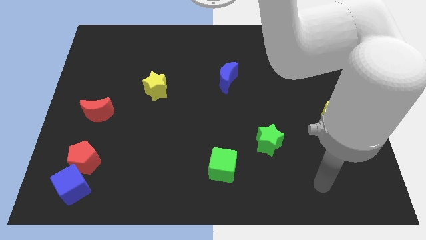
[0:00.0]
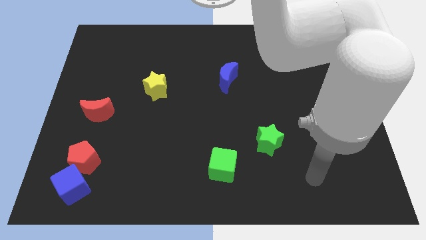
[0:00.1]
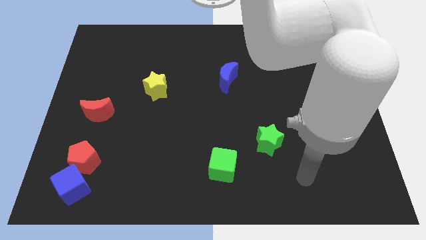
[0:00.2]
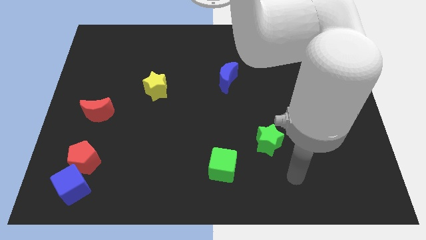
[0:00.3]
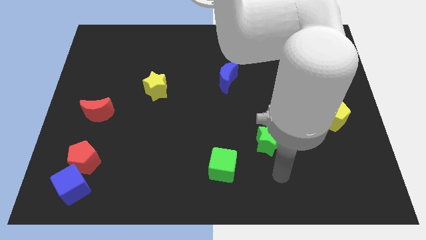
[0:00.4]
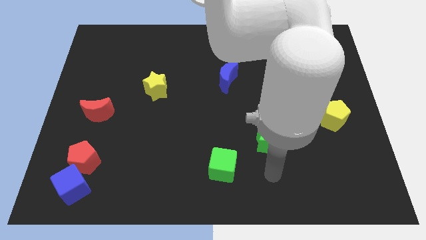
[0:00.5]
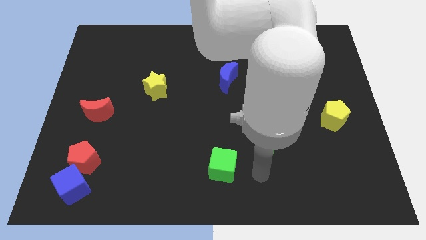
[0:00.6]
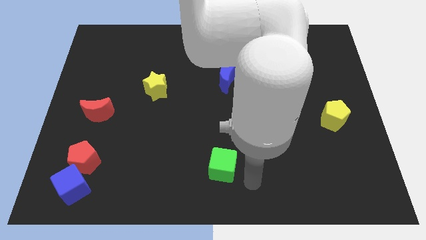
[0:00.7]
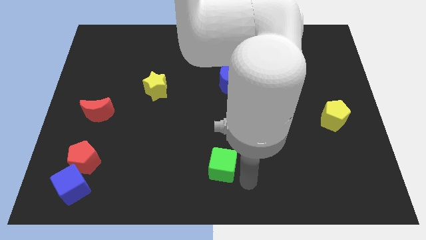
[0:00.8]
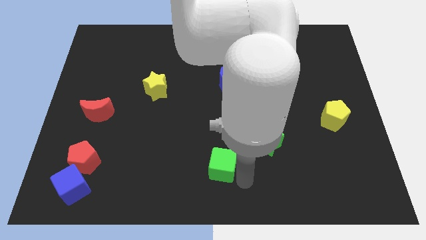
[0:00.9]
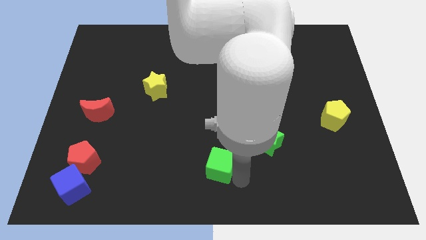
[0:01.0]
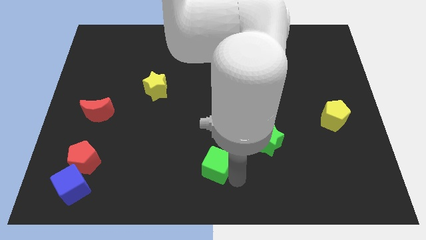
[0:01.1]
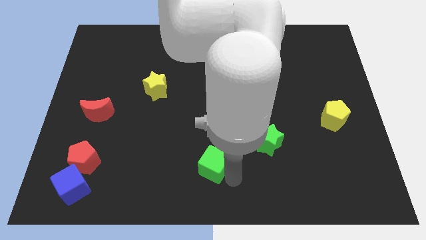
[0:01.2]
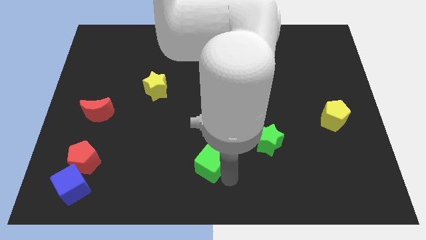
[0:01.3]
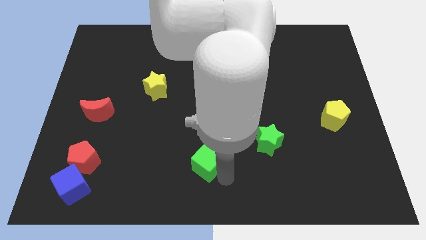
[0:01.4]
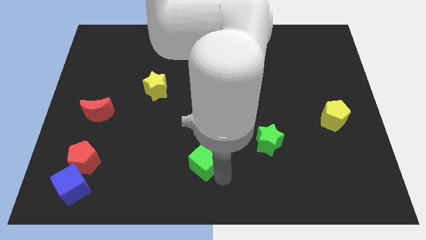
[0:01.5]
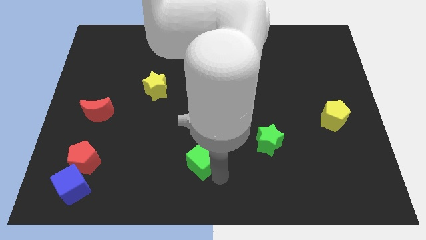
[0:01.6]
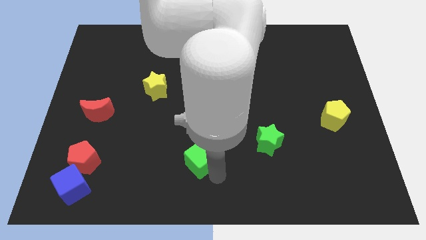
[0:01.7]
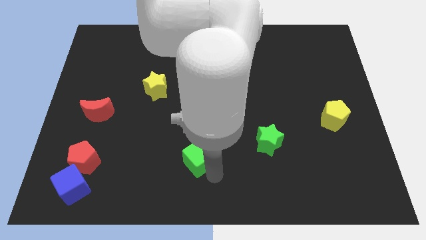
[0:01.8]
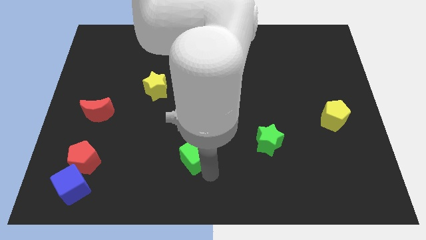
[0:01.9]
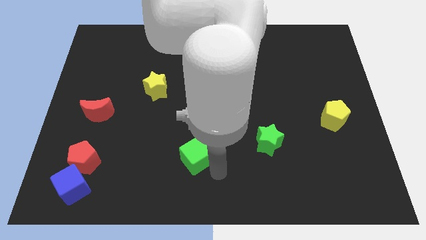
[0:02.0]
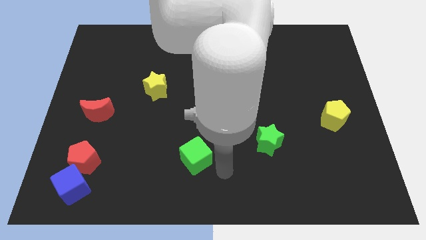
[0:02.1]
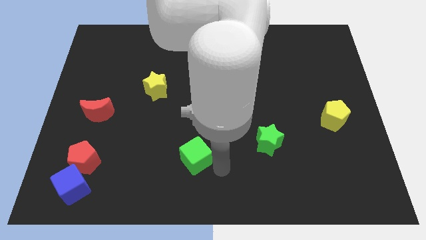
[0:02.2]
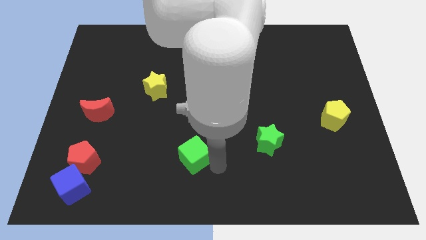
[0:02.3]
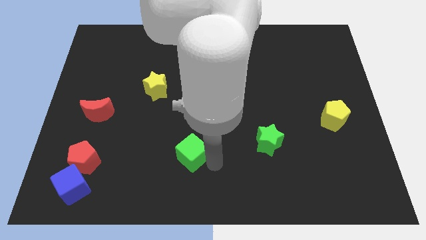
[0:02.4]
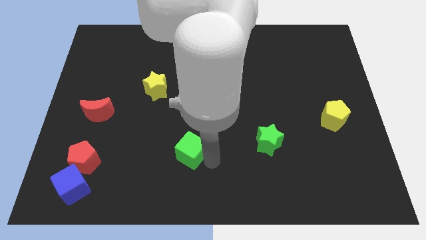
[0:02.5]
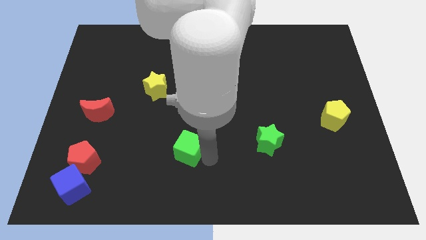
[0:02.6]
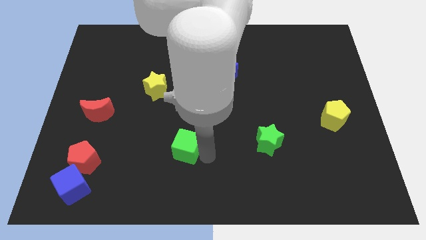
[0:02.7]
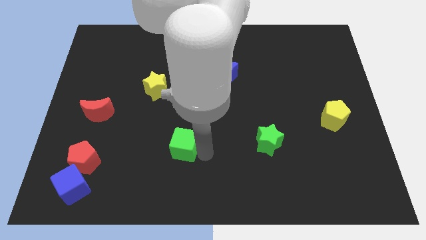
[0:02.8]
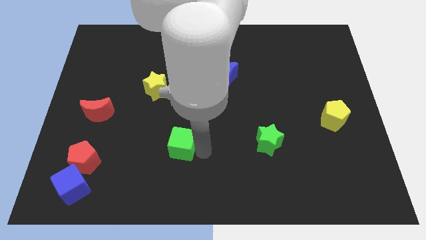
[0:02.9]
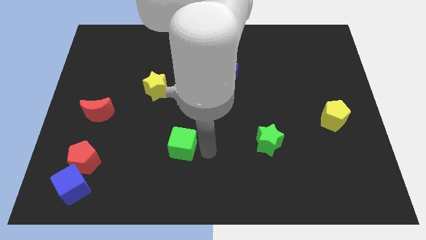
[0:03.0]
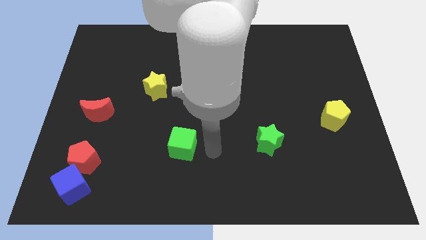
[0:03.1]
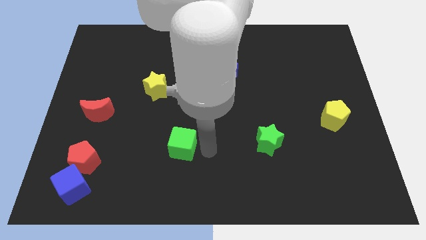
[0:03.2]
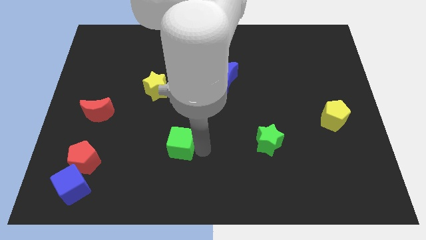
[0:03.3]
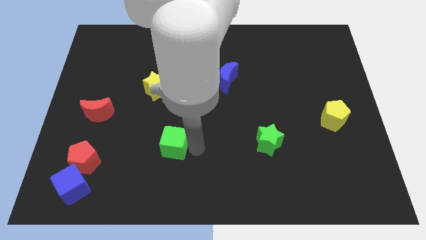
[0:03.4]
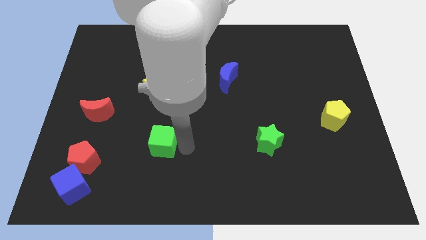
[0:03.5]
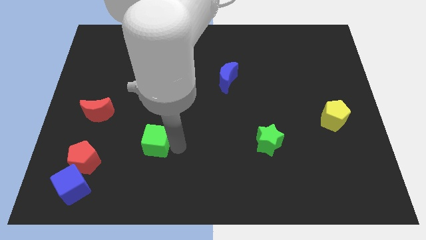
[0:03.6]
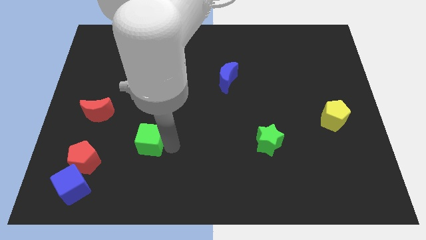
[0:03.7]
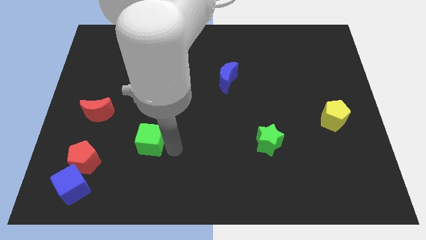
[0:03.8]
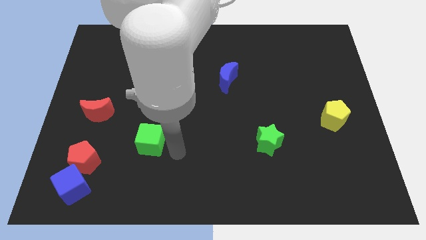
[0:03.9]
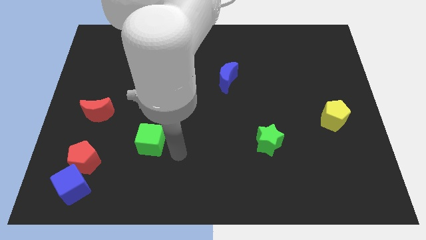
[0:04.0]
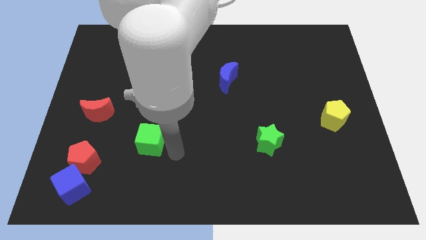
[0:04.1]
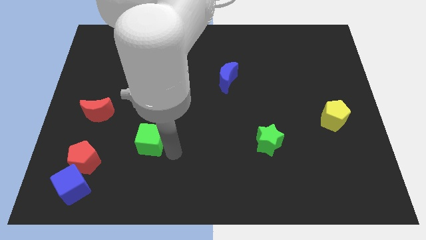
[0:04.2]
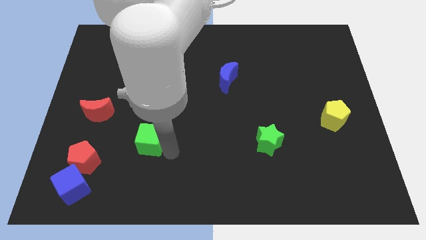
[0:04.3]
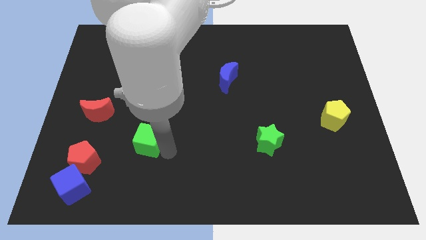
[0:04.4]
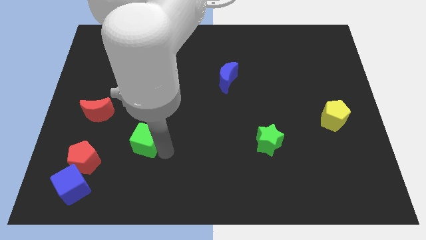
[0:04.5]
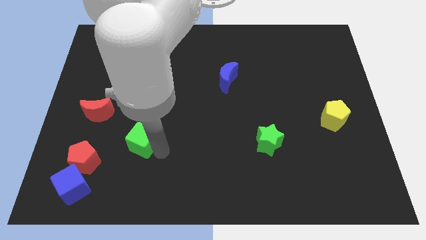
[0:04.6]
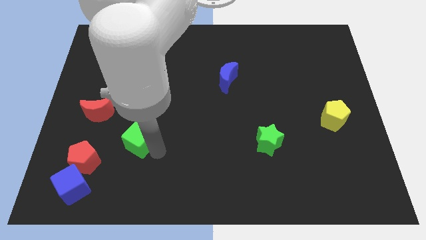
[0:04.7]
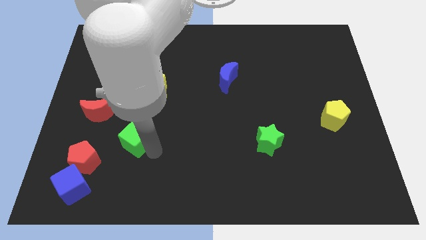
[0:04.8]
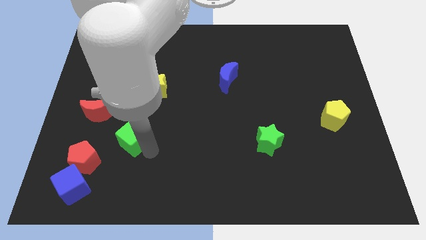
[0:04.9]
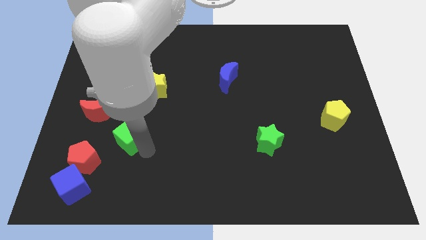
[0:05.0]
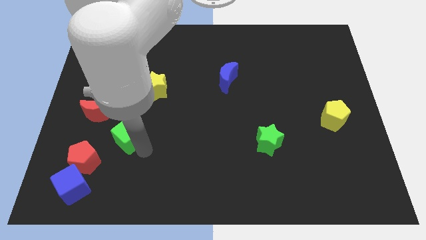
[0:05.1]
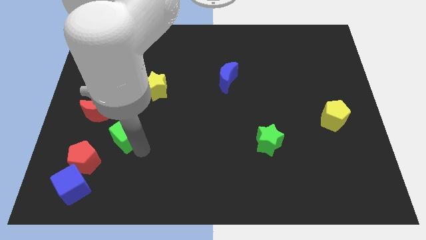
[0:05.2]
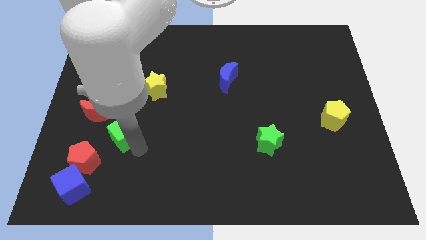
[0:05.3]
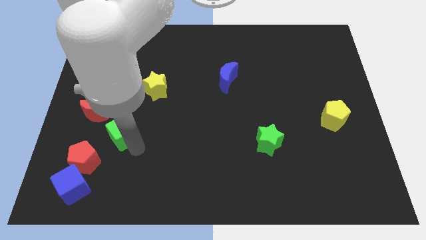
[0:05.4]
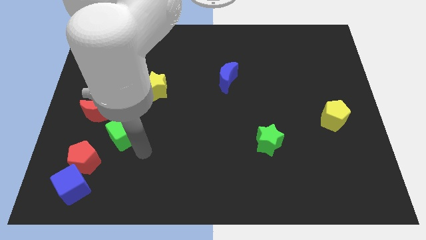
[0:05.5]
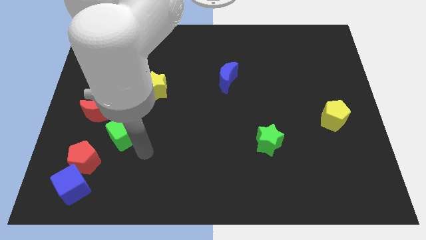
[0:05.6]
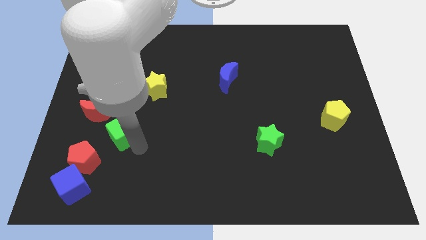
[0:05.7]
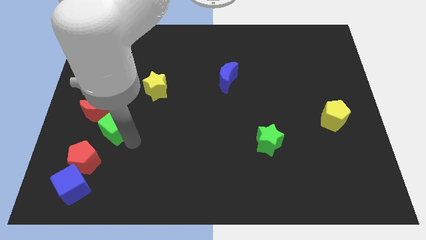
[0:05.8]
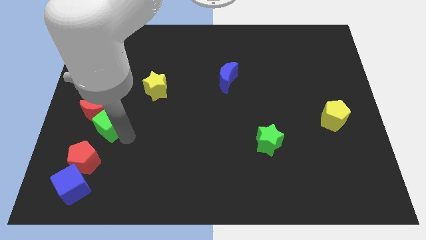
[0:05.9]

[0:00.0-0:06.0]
move the green cube to the red moon

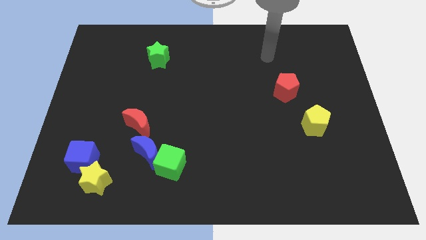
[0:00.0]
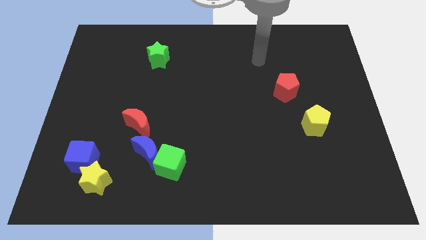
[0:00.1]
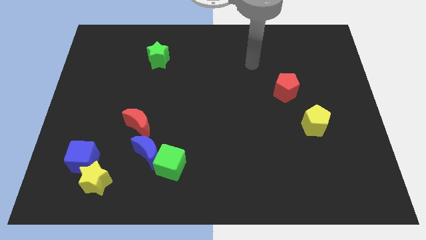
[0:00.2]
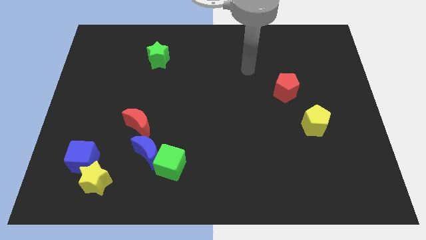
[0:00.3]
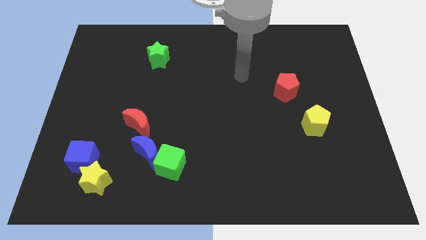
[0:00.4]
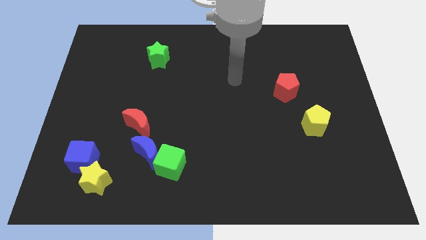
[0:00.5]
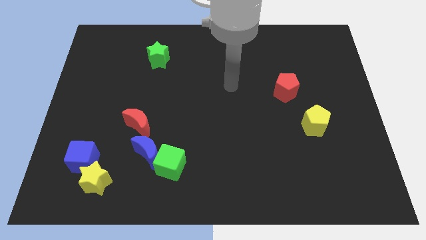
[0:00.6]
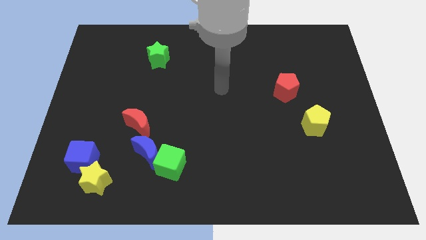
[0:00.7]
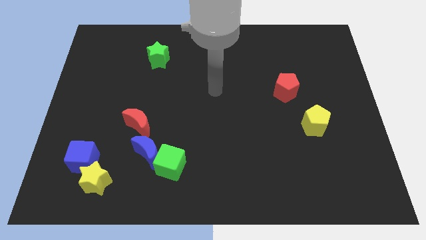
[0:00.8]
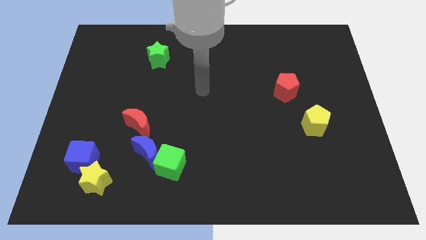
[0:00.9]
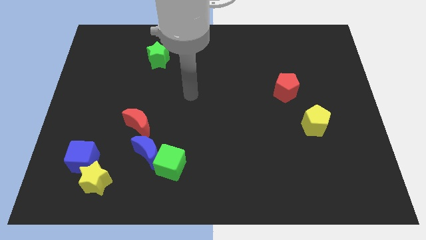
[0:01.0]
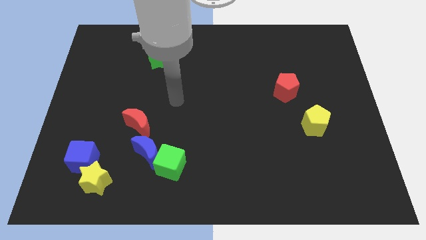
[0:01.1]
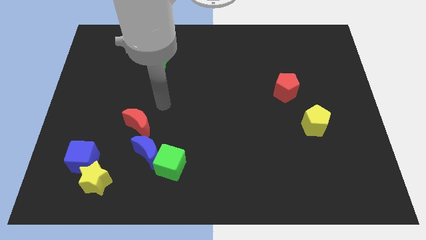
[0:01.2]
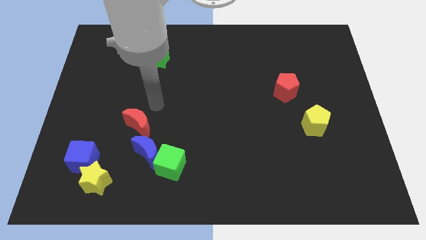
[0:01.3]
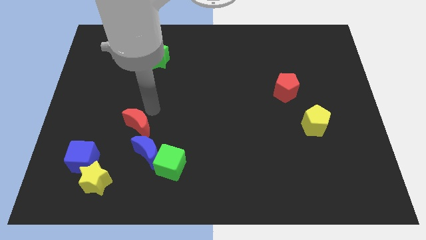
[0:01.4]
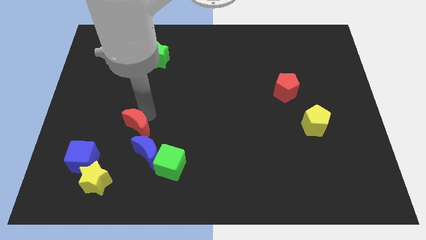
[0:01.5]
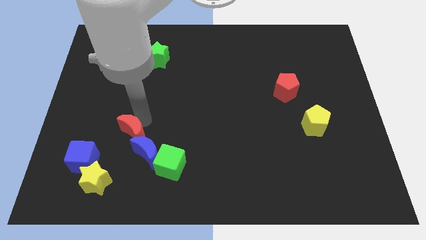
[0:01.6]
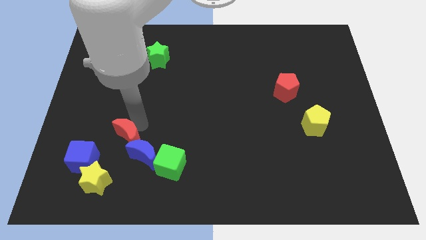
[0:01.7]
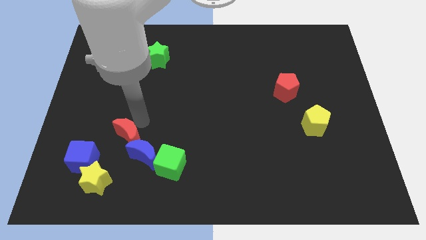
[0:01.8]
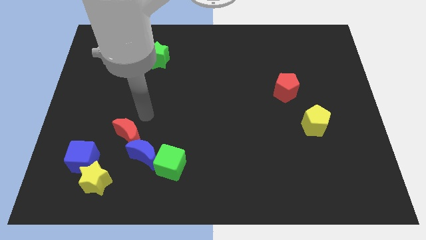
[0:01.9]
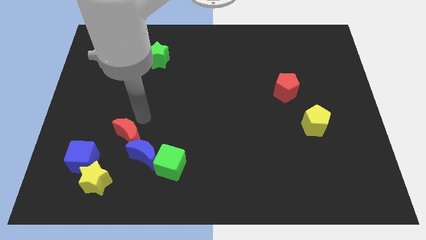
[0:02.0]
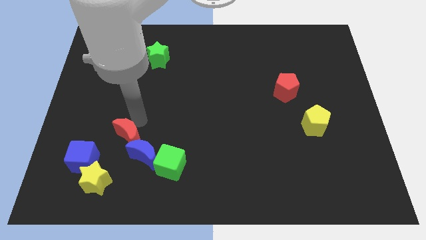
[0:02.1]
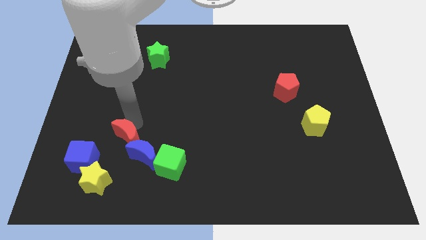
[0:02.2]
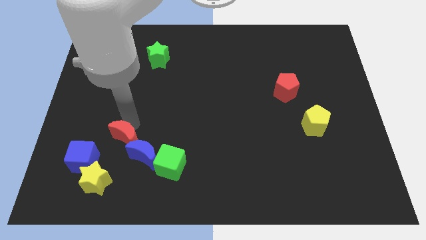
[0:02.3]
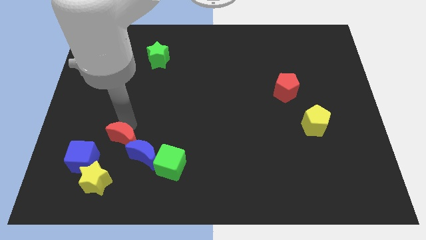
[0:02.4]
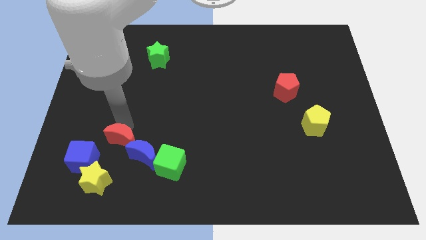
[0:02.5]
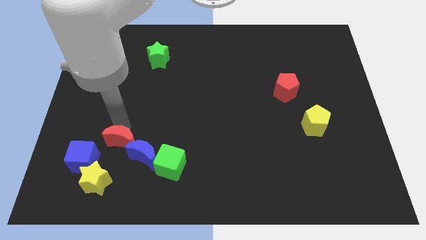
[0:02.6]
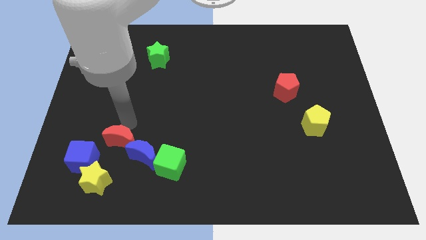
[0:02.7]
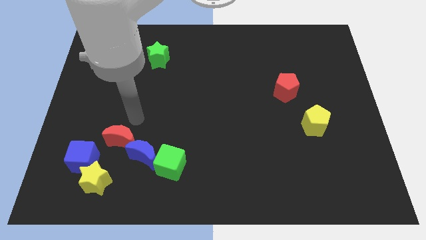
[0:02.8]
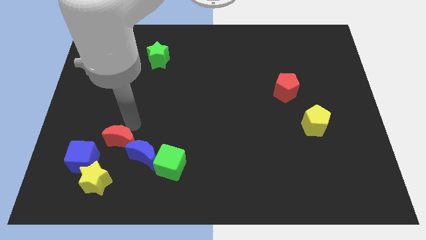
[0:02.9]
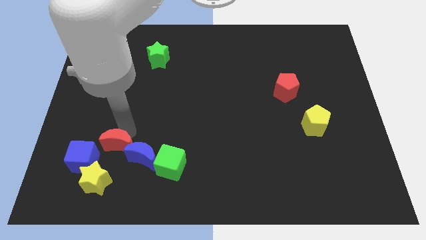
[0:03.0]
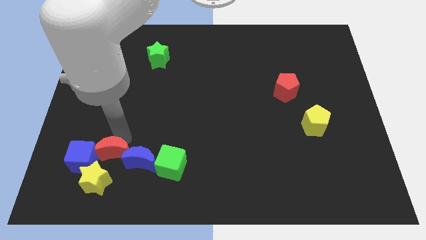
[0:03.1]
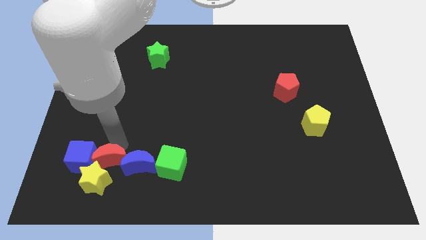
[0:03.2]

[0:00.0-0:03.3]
move the red moon next to the yellow star
